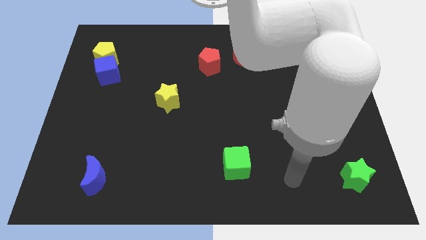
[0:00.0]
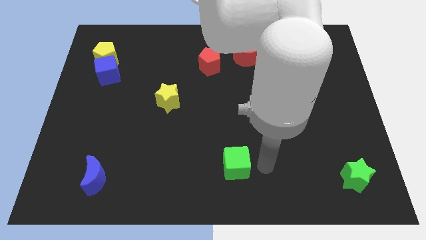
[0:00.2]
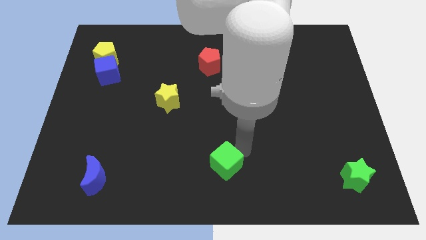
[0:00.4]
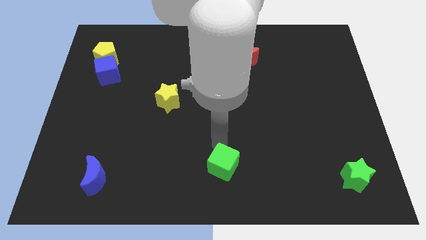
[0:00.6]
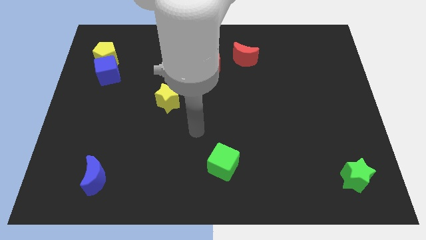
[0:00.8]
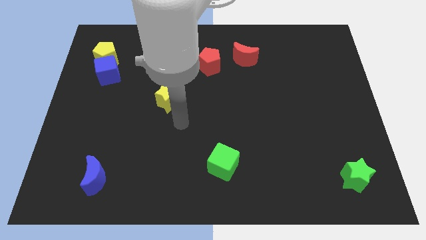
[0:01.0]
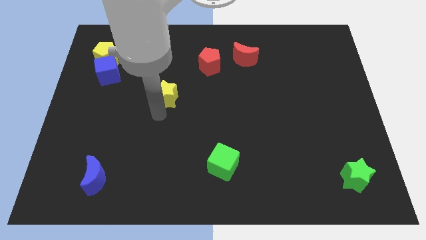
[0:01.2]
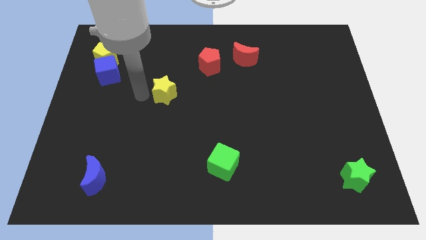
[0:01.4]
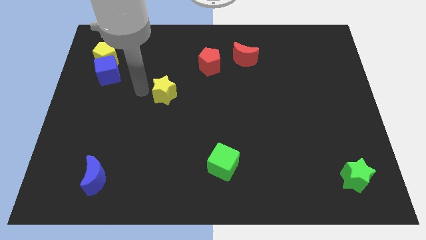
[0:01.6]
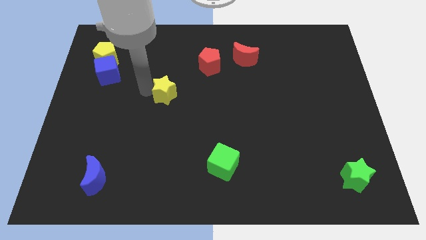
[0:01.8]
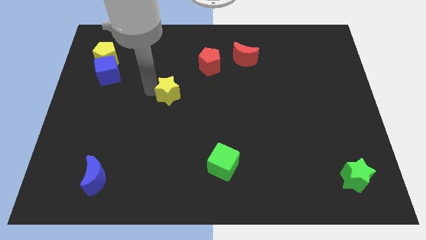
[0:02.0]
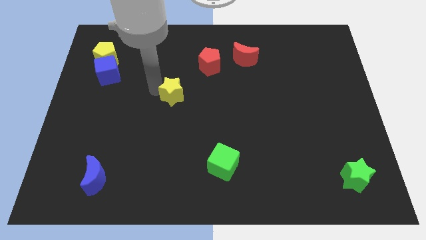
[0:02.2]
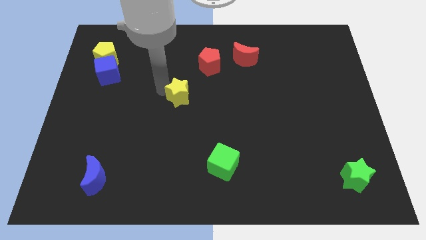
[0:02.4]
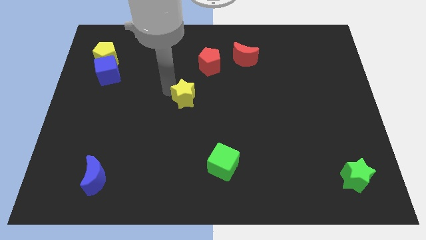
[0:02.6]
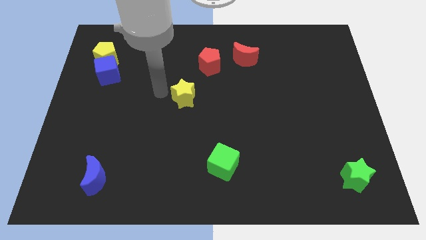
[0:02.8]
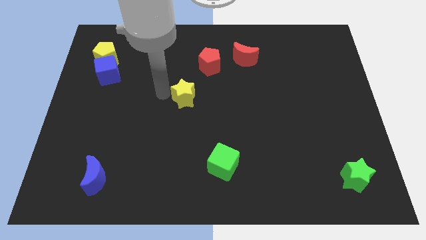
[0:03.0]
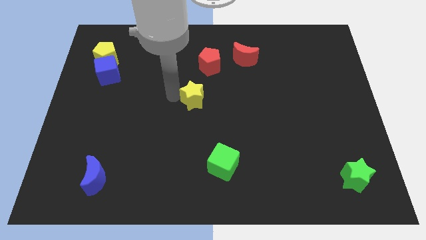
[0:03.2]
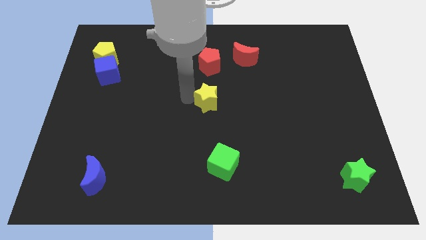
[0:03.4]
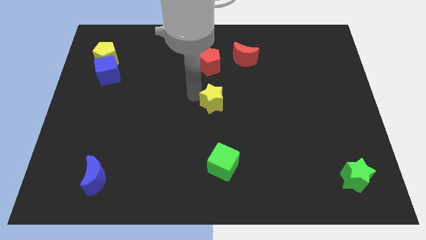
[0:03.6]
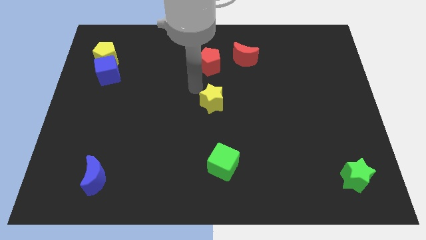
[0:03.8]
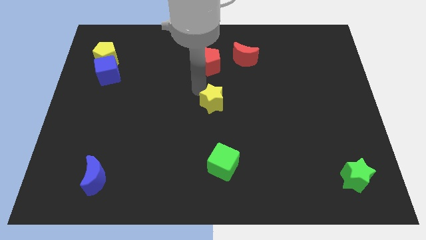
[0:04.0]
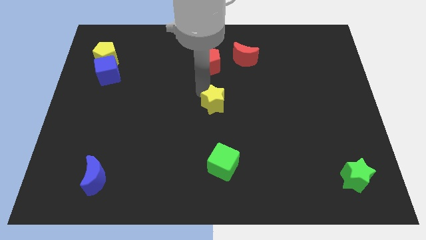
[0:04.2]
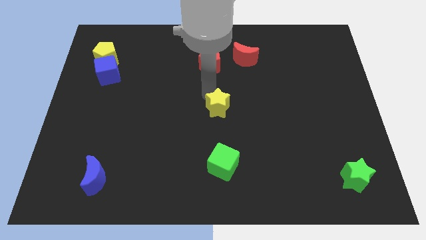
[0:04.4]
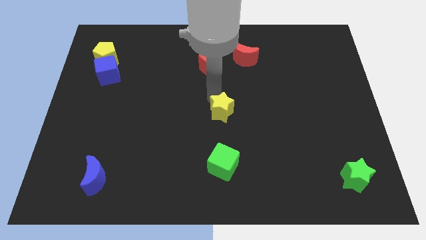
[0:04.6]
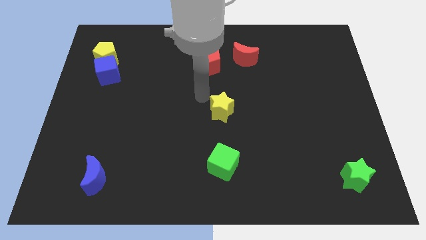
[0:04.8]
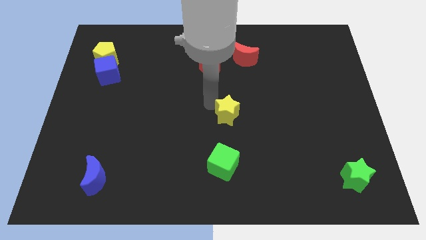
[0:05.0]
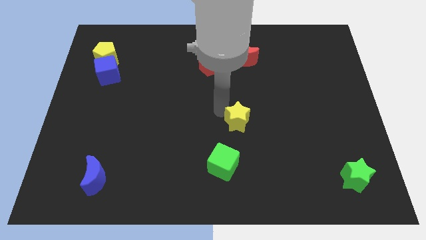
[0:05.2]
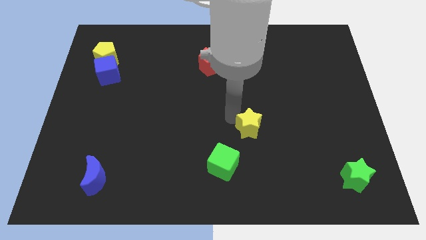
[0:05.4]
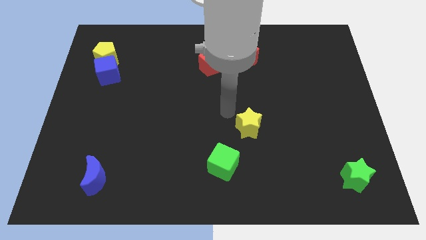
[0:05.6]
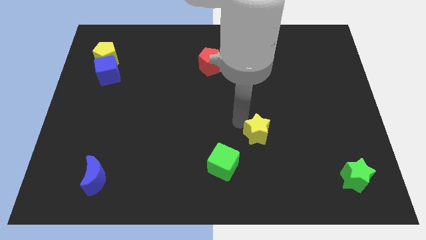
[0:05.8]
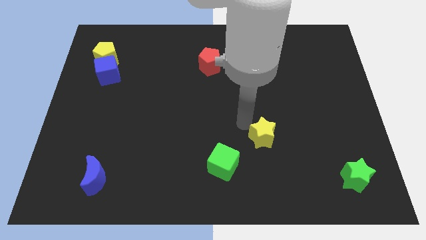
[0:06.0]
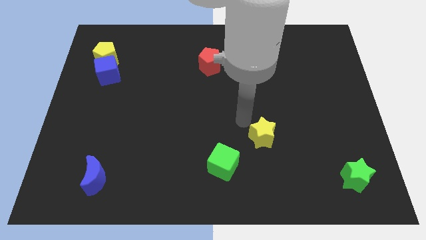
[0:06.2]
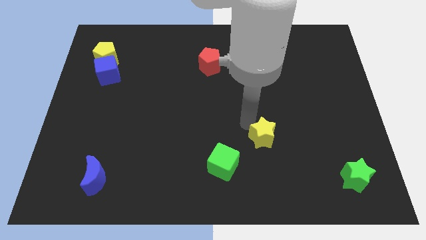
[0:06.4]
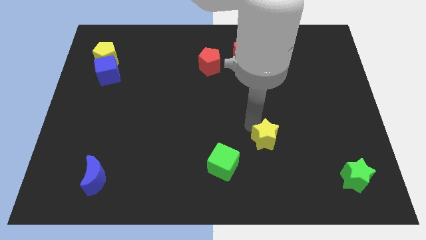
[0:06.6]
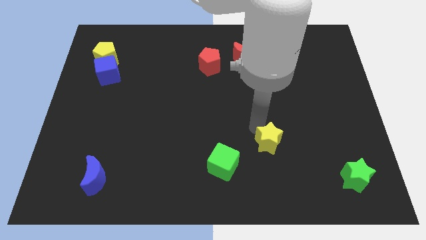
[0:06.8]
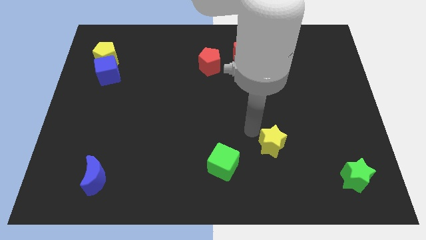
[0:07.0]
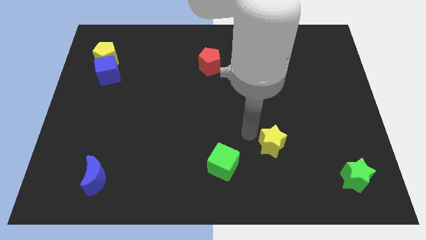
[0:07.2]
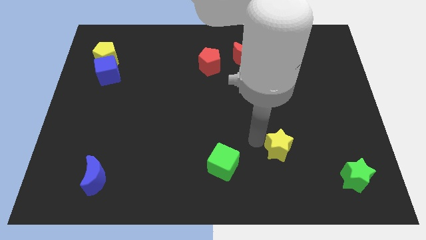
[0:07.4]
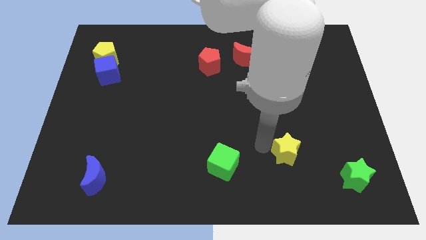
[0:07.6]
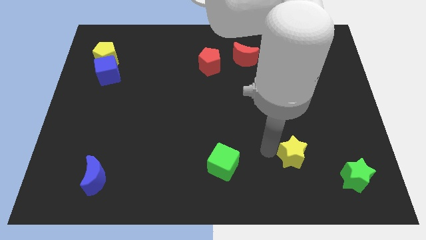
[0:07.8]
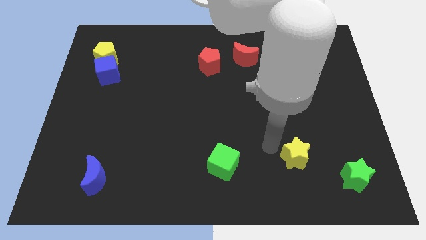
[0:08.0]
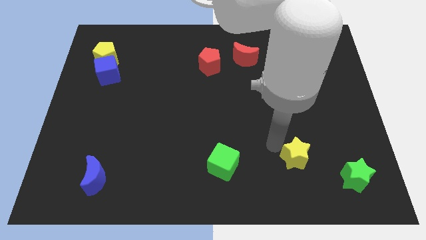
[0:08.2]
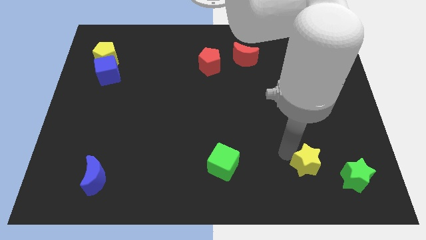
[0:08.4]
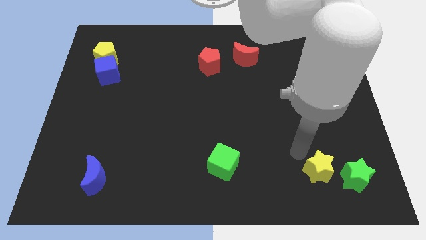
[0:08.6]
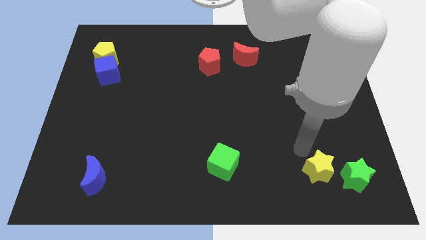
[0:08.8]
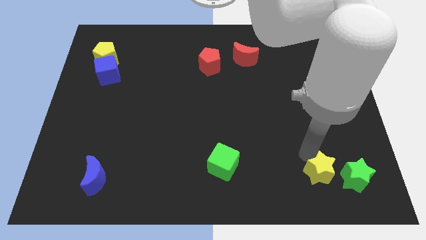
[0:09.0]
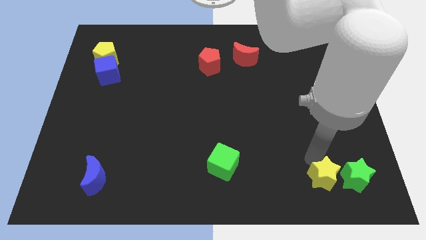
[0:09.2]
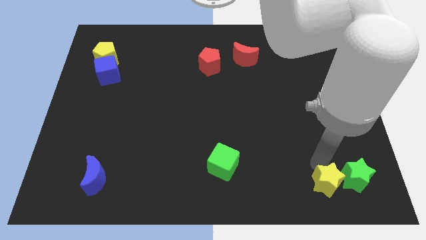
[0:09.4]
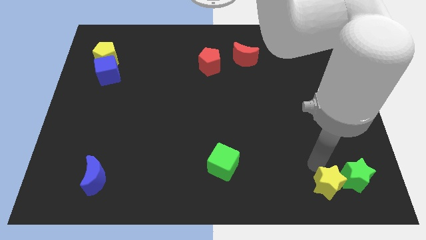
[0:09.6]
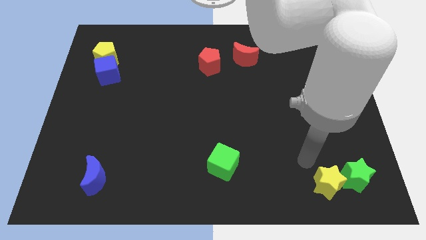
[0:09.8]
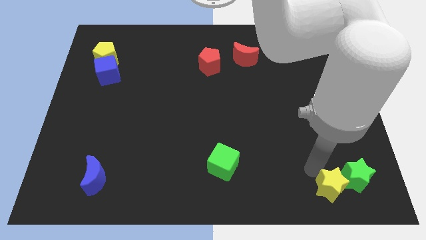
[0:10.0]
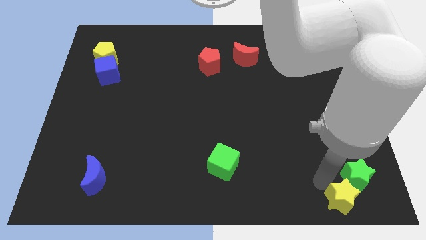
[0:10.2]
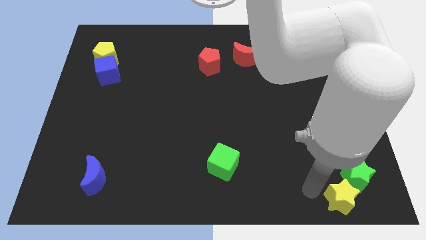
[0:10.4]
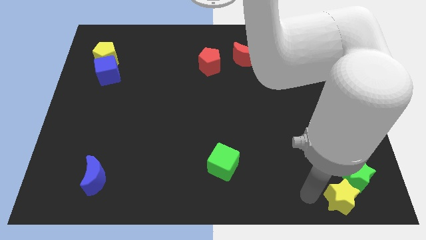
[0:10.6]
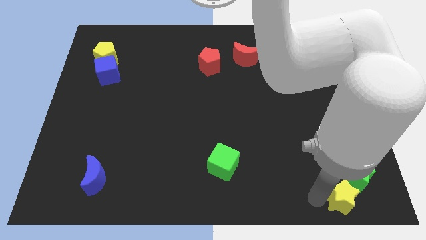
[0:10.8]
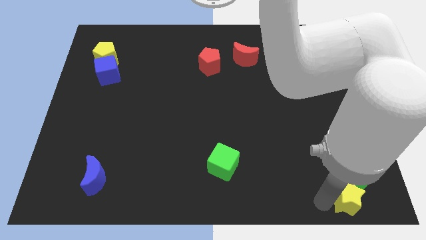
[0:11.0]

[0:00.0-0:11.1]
put the yellow star to the bottom right of the board

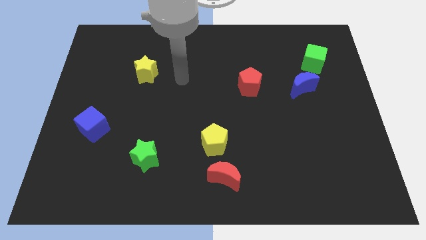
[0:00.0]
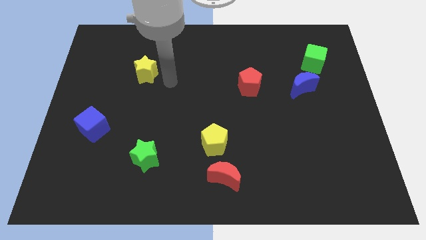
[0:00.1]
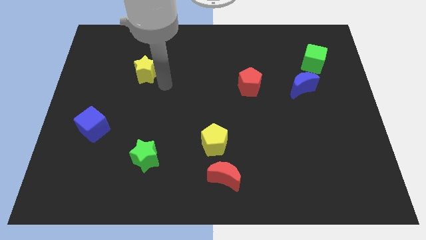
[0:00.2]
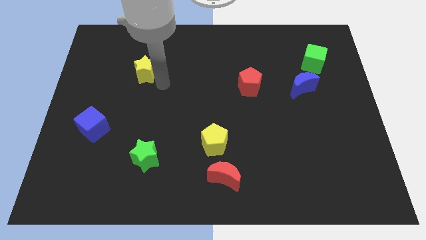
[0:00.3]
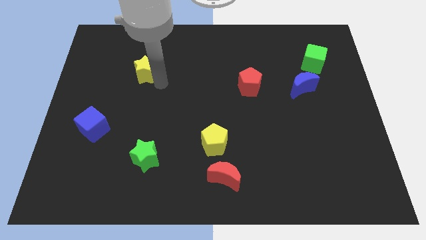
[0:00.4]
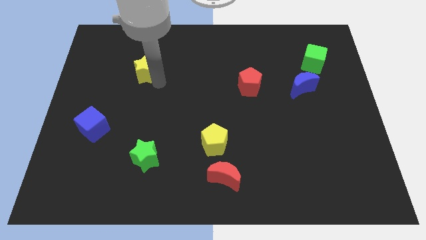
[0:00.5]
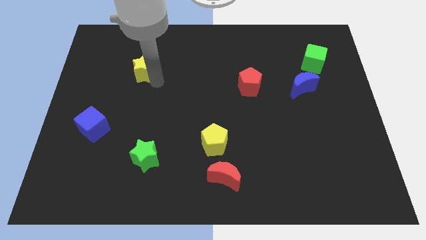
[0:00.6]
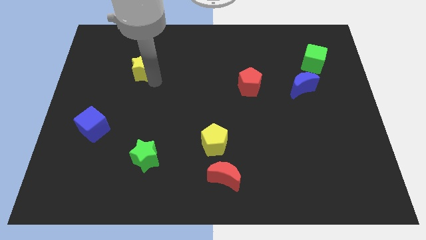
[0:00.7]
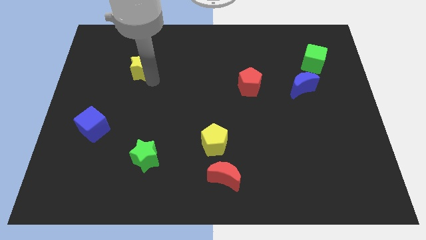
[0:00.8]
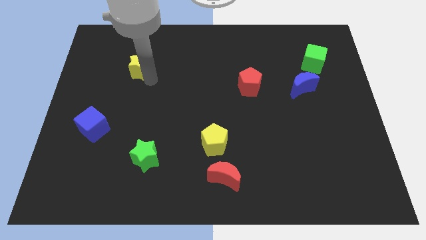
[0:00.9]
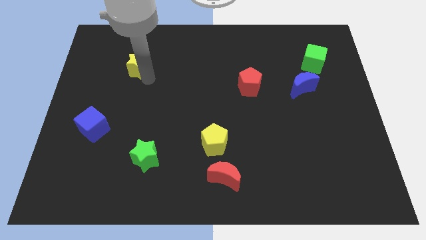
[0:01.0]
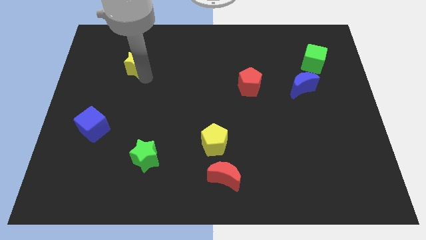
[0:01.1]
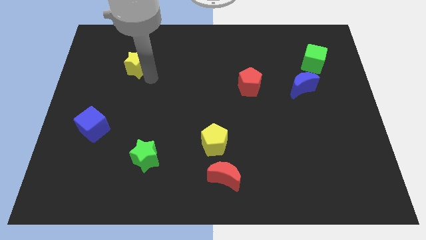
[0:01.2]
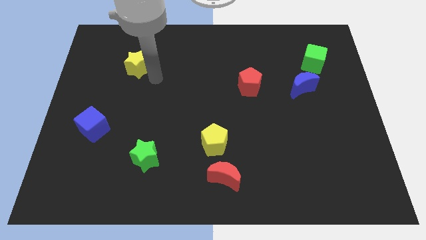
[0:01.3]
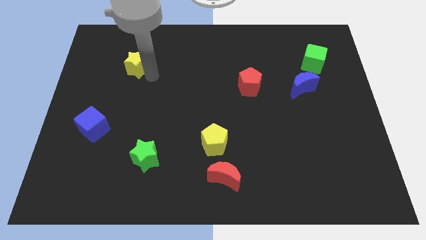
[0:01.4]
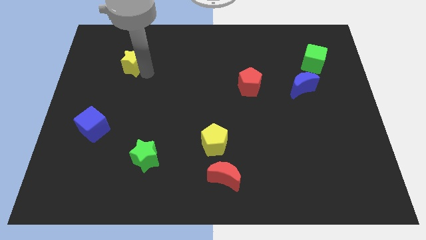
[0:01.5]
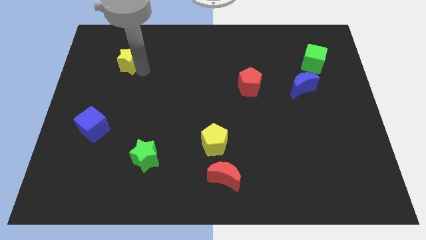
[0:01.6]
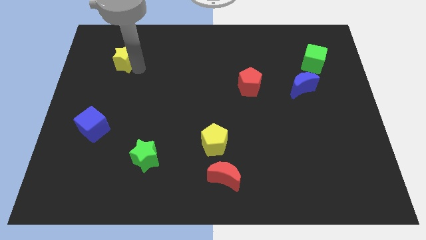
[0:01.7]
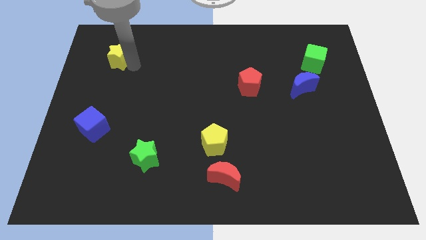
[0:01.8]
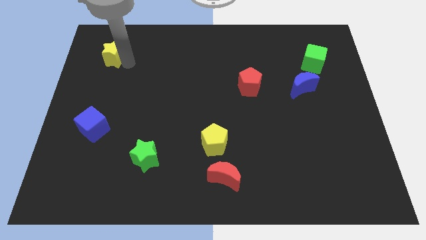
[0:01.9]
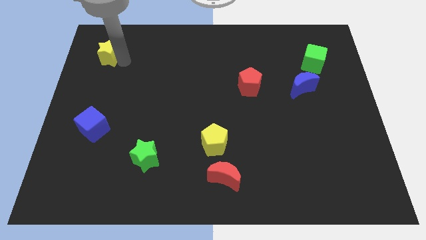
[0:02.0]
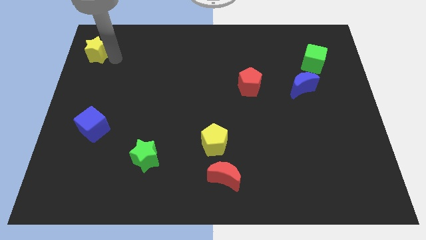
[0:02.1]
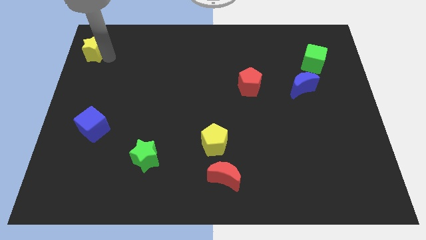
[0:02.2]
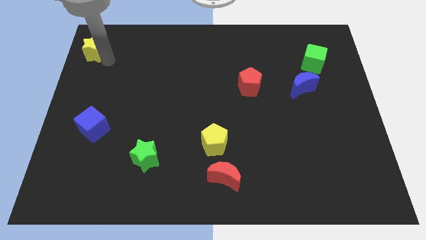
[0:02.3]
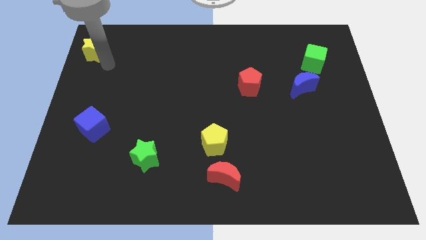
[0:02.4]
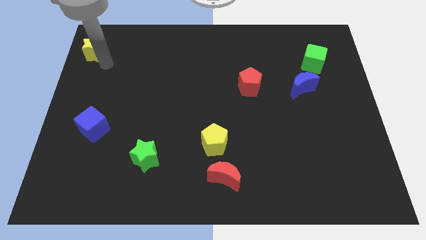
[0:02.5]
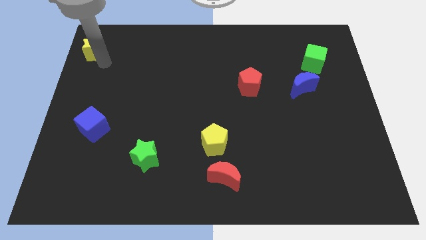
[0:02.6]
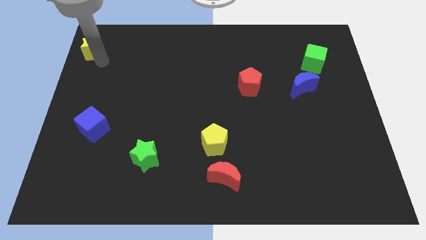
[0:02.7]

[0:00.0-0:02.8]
put the yellow star to the top left corner
